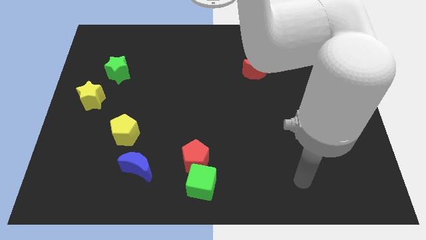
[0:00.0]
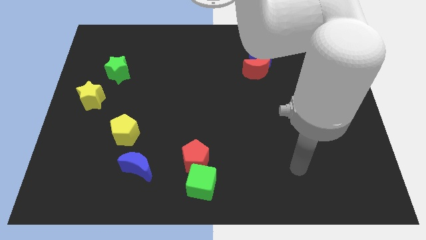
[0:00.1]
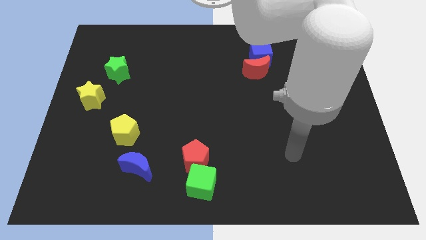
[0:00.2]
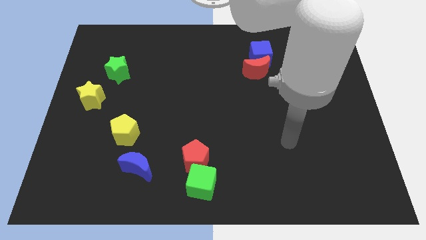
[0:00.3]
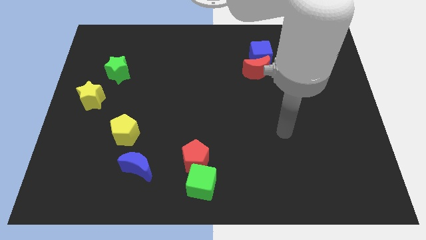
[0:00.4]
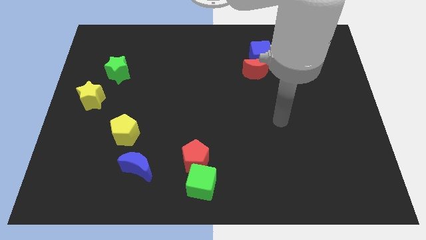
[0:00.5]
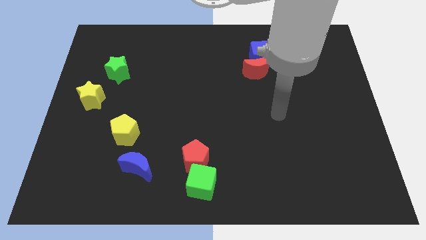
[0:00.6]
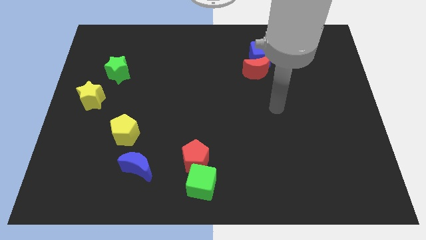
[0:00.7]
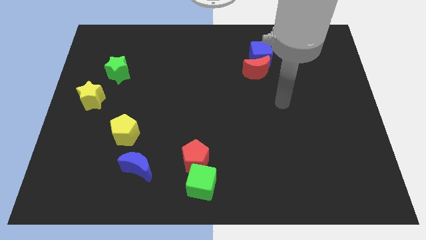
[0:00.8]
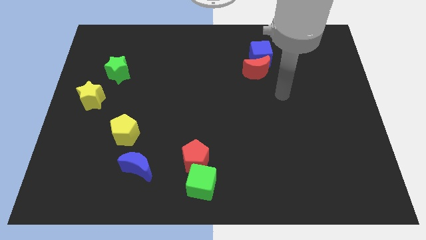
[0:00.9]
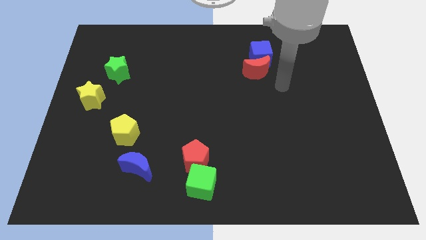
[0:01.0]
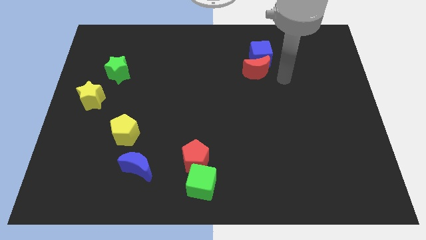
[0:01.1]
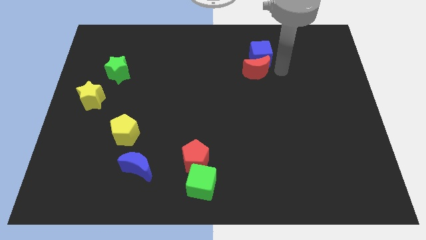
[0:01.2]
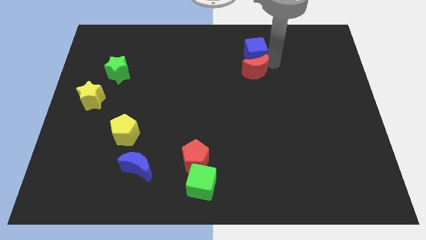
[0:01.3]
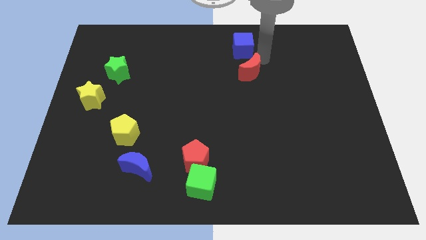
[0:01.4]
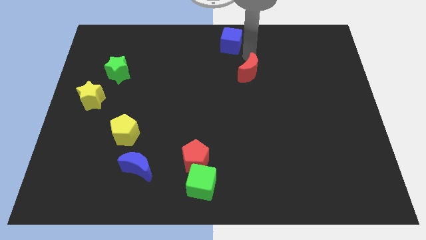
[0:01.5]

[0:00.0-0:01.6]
move the red moon away from the blue cube

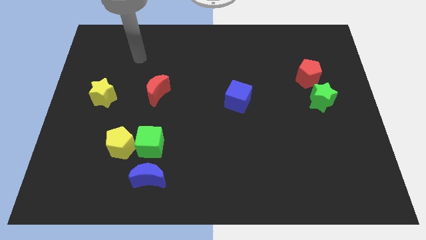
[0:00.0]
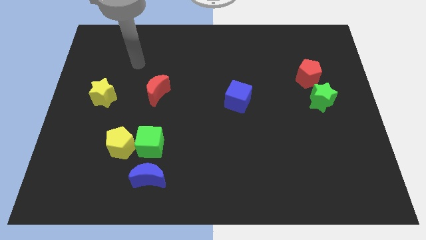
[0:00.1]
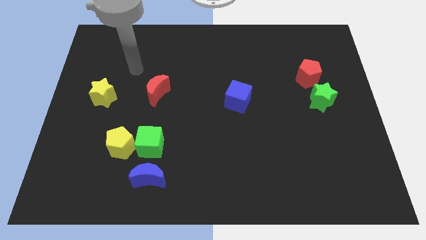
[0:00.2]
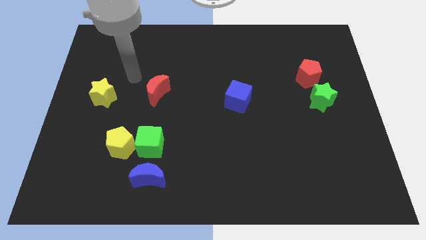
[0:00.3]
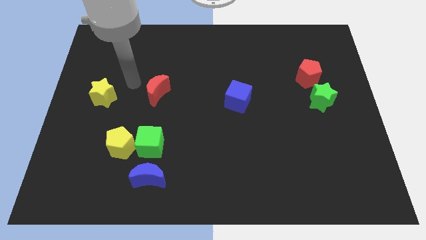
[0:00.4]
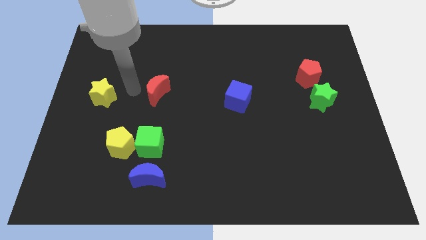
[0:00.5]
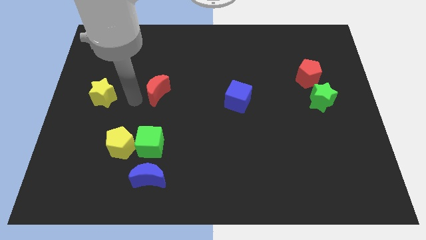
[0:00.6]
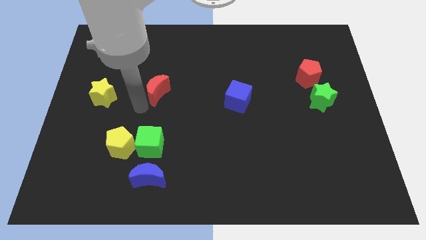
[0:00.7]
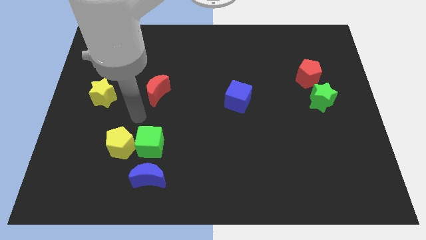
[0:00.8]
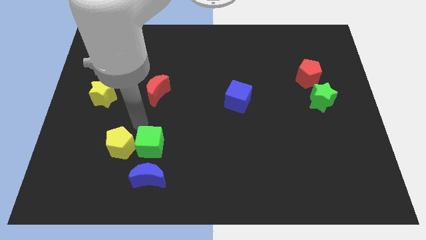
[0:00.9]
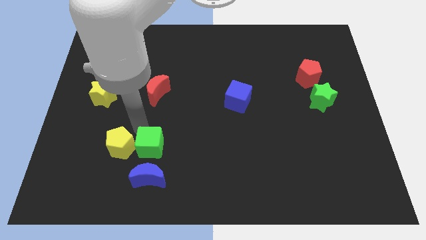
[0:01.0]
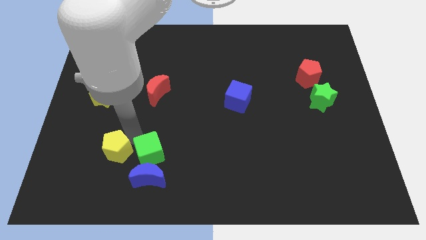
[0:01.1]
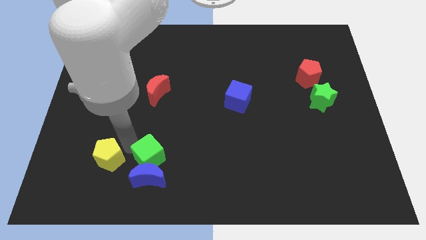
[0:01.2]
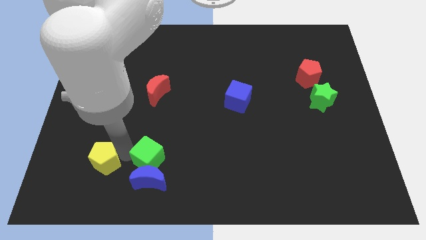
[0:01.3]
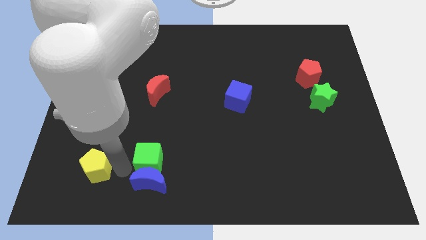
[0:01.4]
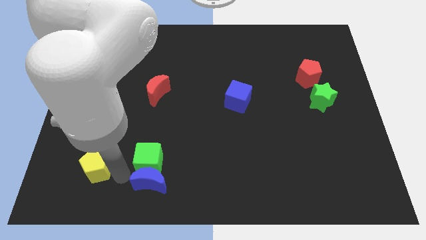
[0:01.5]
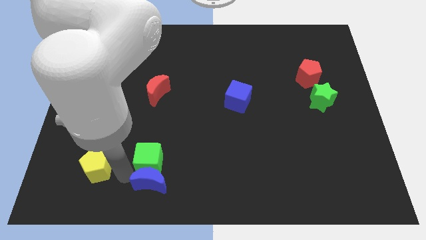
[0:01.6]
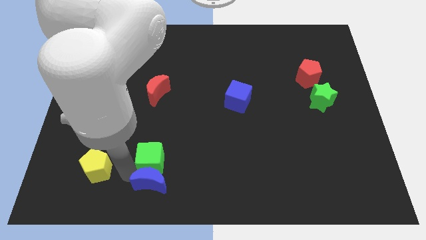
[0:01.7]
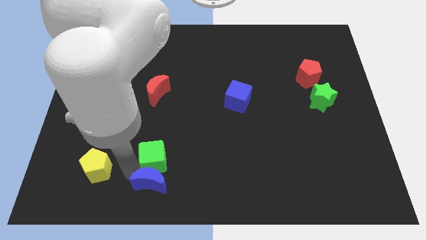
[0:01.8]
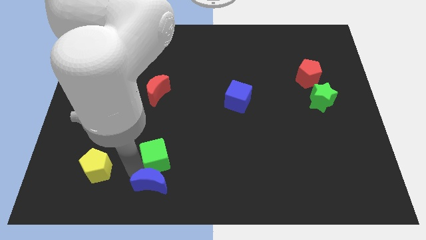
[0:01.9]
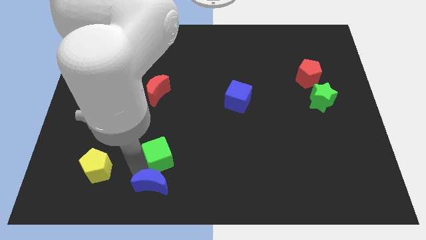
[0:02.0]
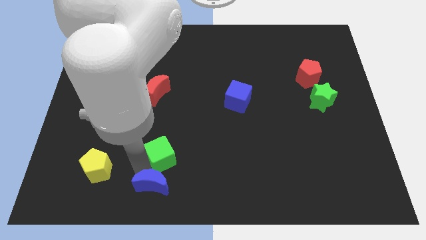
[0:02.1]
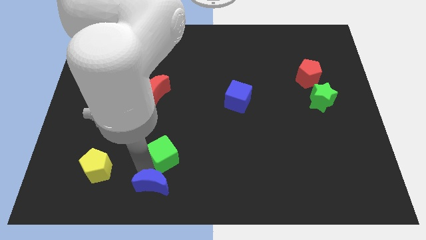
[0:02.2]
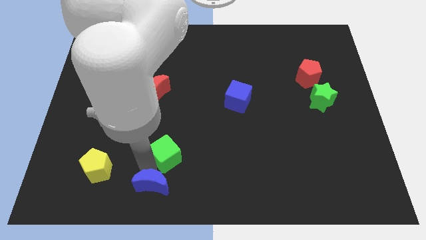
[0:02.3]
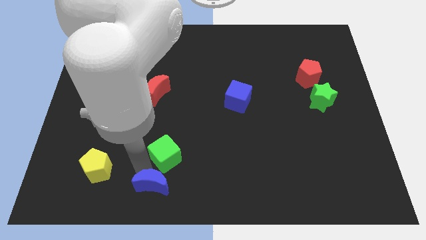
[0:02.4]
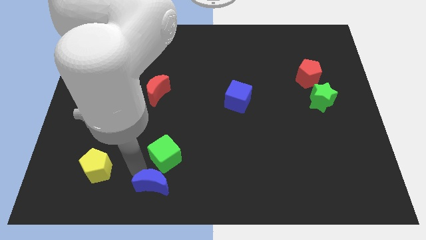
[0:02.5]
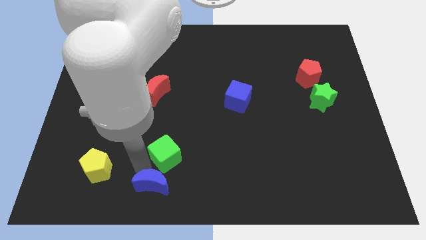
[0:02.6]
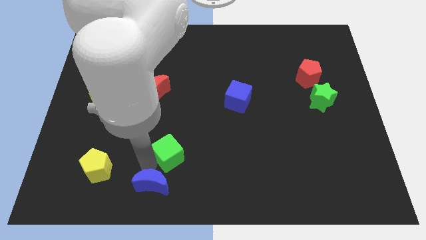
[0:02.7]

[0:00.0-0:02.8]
separate the green cube from the yellow pentagon and blue moon

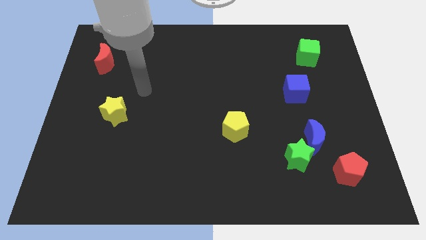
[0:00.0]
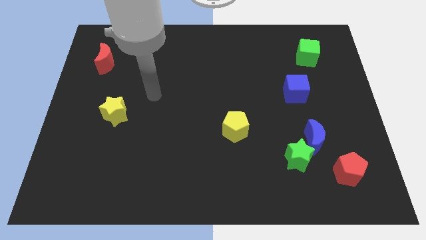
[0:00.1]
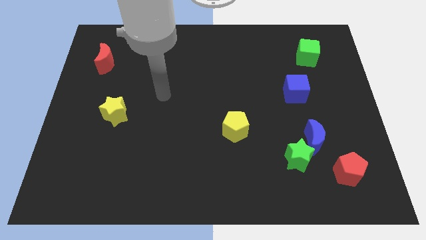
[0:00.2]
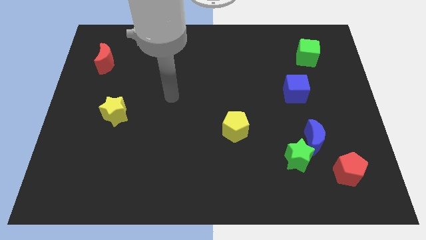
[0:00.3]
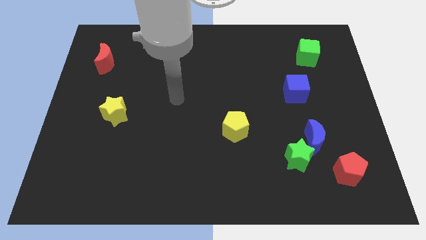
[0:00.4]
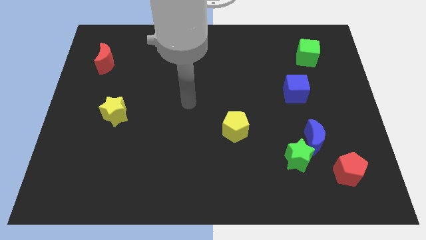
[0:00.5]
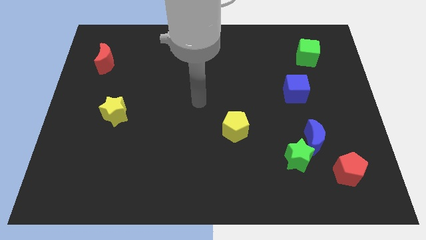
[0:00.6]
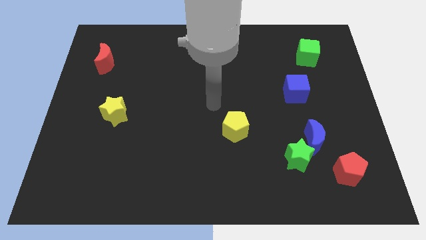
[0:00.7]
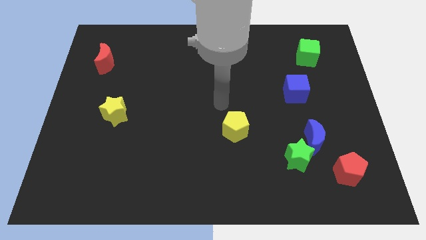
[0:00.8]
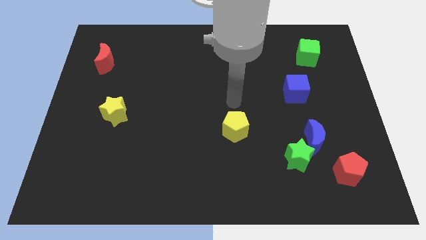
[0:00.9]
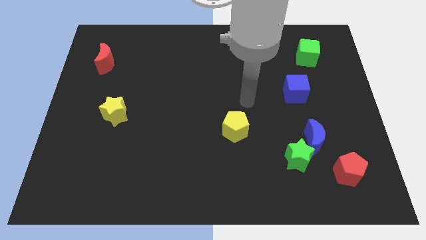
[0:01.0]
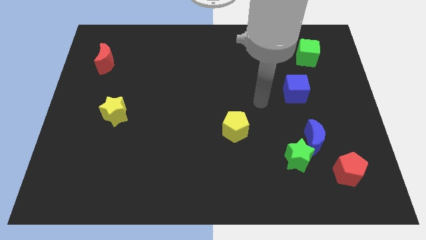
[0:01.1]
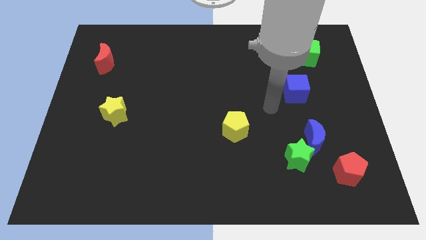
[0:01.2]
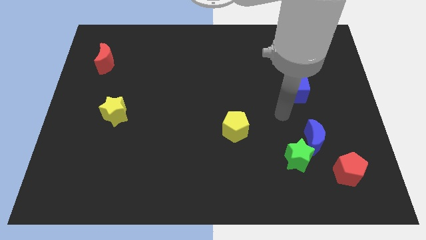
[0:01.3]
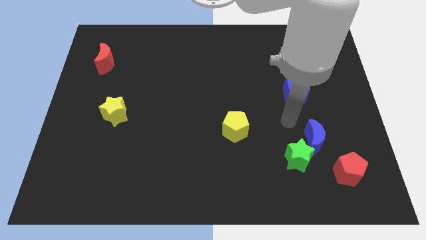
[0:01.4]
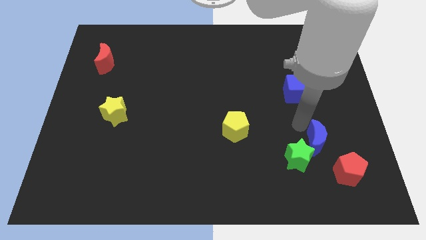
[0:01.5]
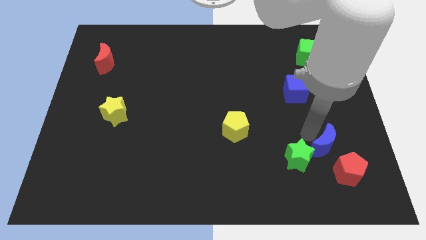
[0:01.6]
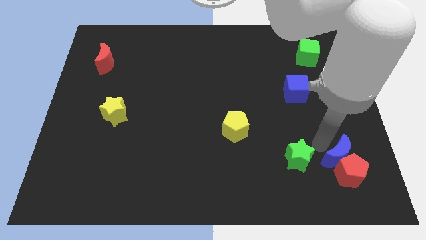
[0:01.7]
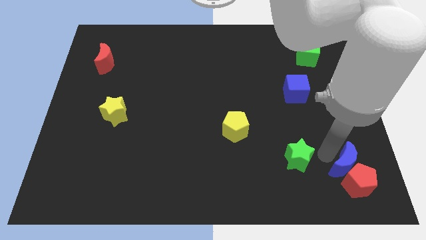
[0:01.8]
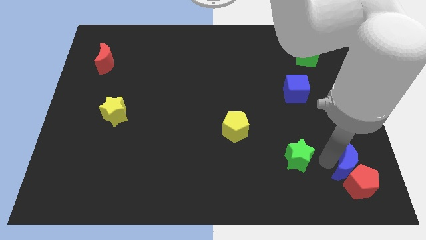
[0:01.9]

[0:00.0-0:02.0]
pull the green star apart from the blue moon

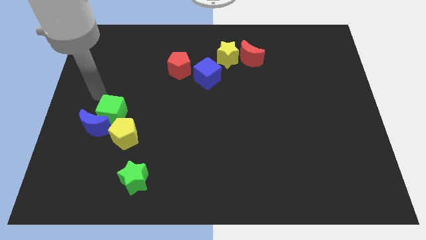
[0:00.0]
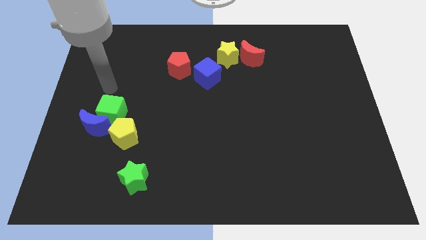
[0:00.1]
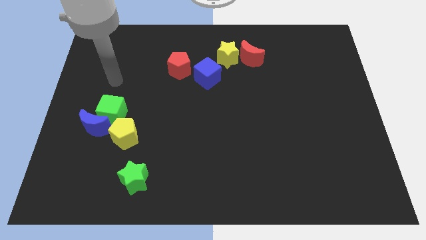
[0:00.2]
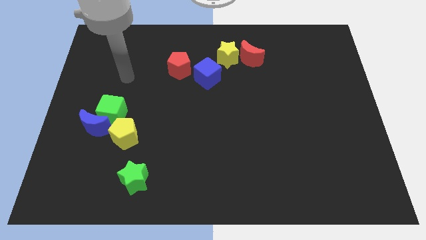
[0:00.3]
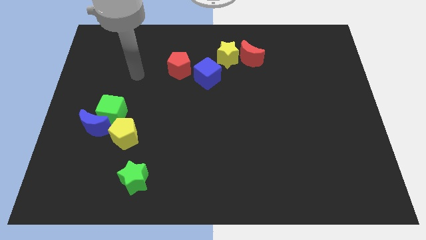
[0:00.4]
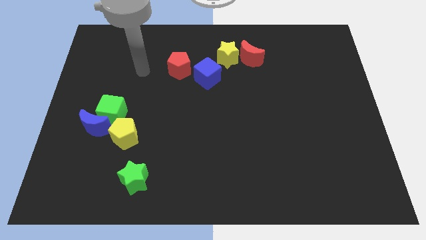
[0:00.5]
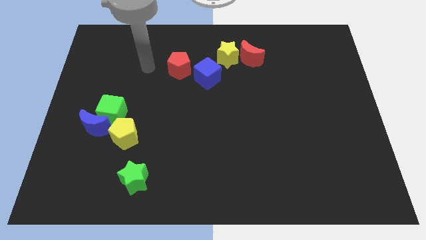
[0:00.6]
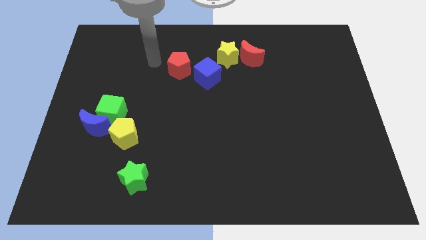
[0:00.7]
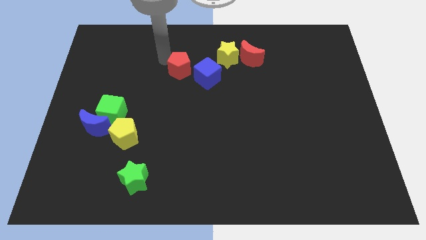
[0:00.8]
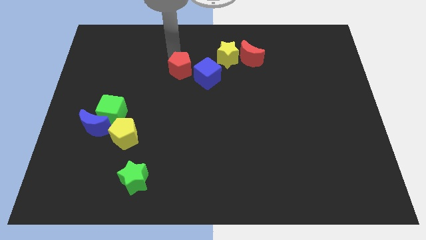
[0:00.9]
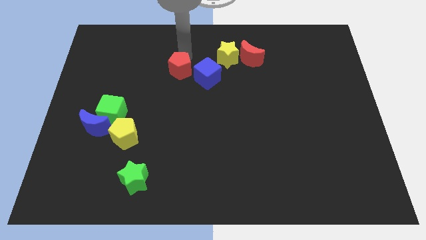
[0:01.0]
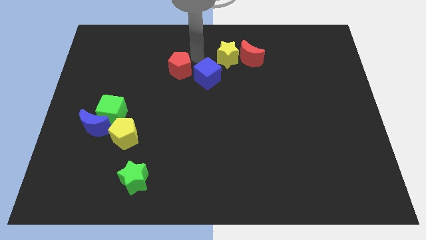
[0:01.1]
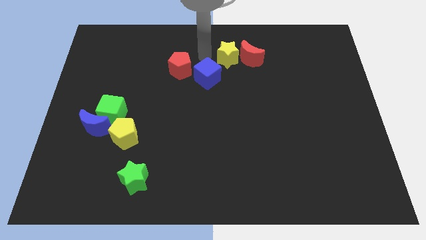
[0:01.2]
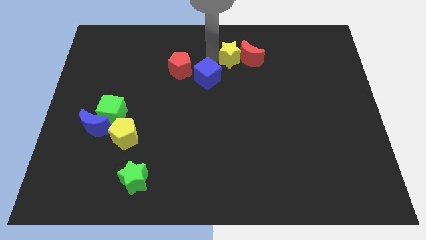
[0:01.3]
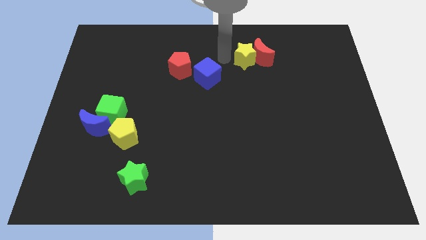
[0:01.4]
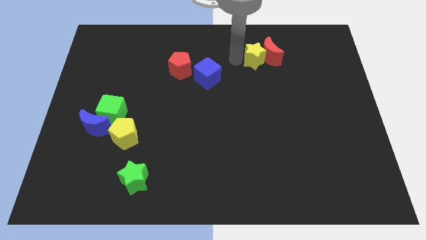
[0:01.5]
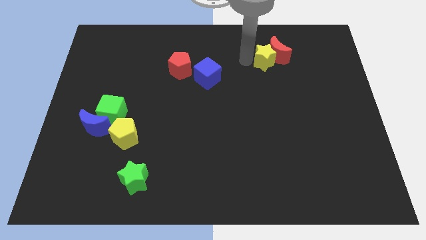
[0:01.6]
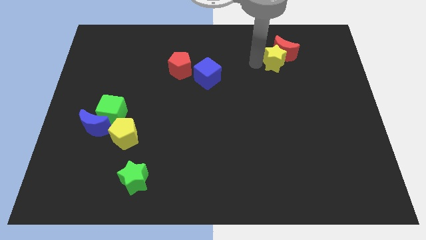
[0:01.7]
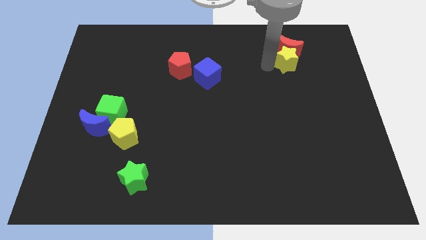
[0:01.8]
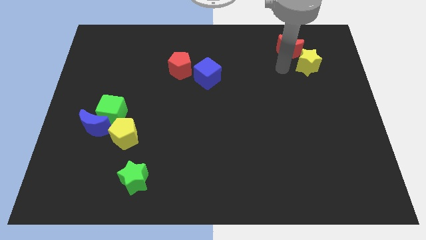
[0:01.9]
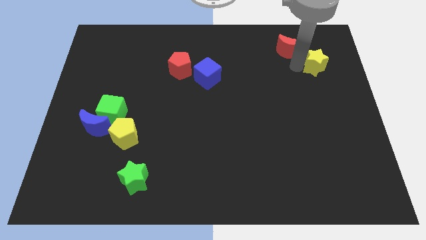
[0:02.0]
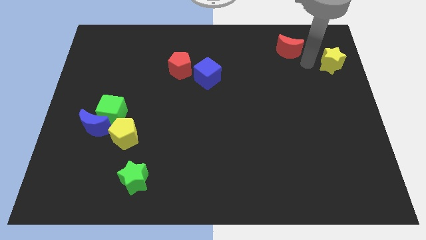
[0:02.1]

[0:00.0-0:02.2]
pull the red moon apart from the yellow star

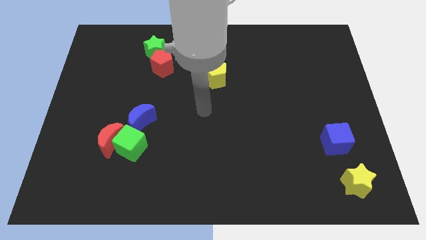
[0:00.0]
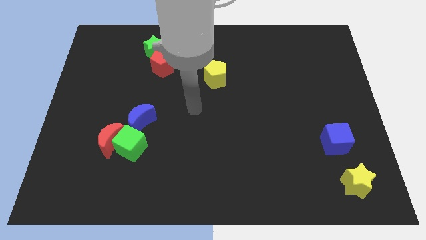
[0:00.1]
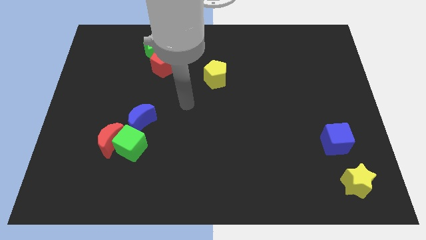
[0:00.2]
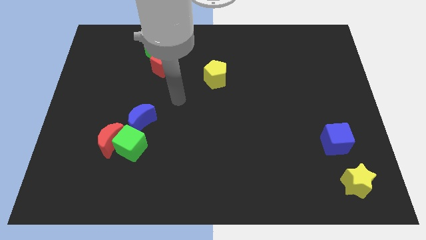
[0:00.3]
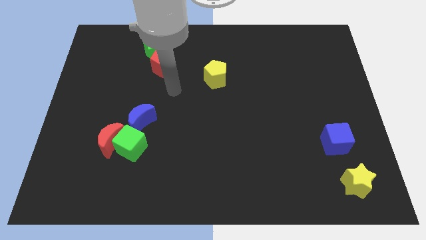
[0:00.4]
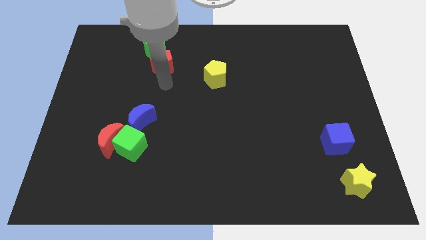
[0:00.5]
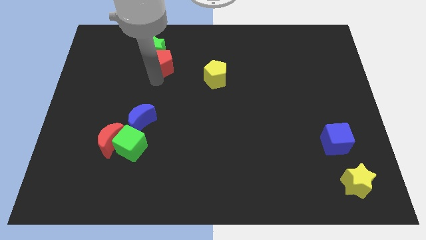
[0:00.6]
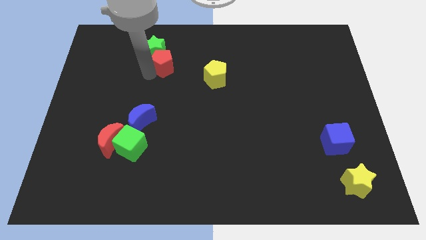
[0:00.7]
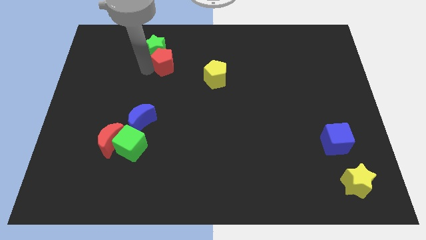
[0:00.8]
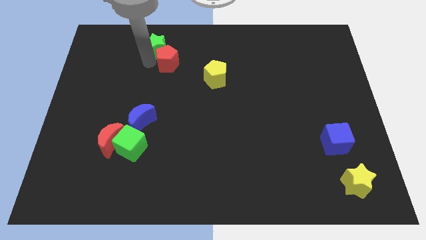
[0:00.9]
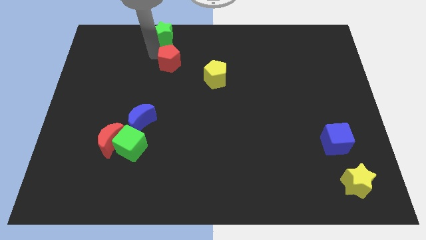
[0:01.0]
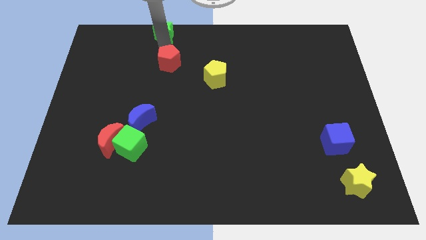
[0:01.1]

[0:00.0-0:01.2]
pull the red pentagon apart from the green star
